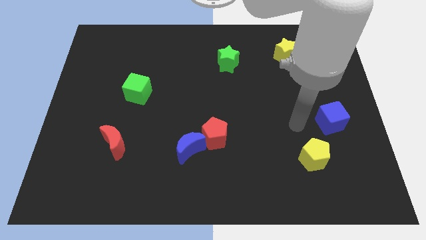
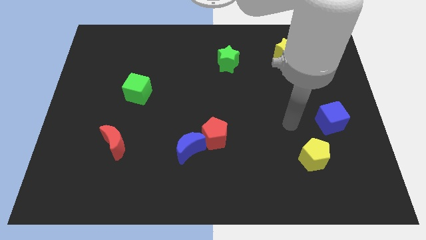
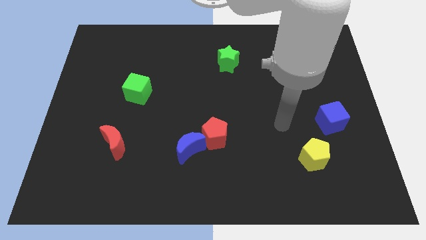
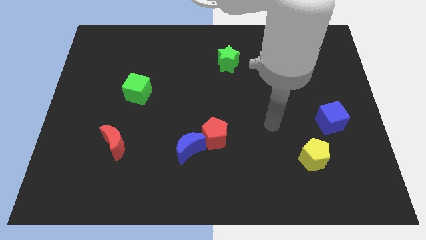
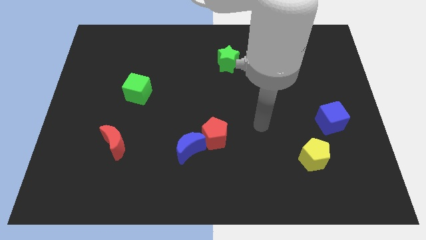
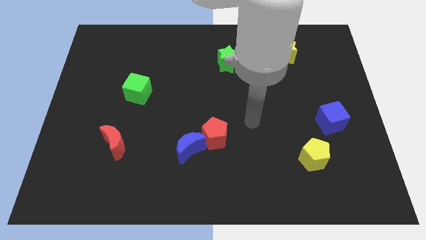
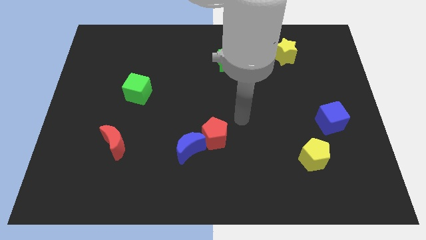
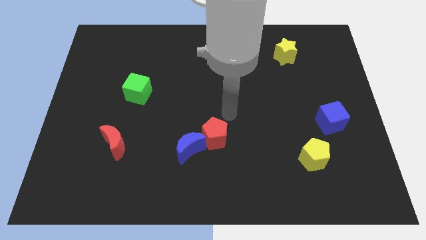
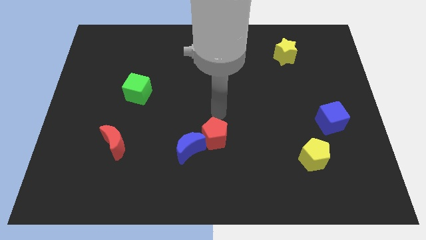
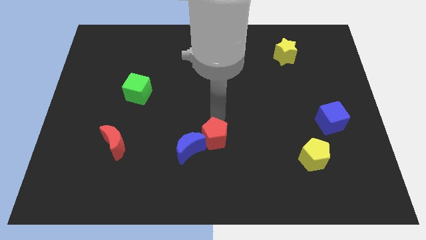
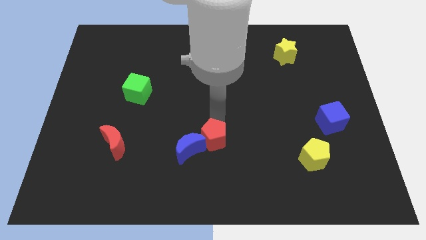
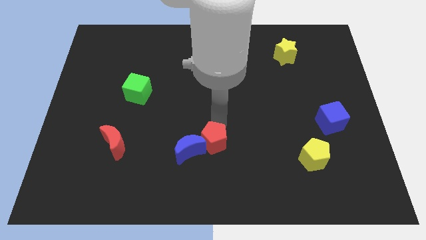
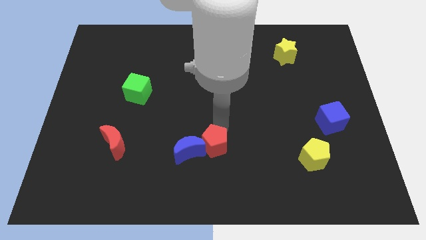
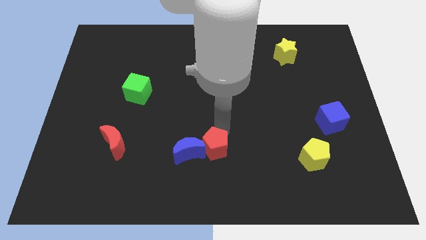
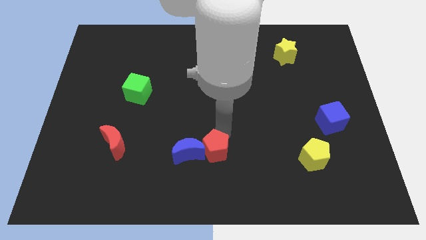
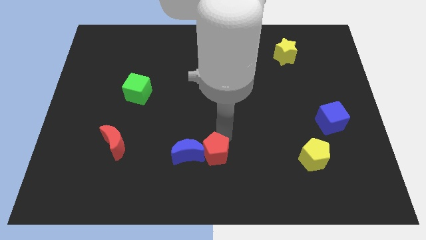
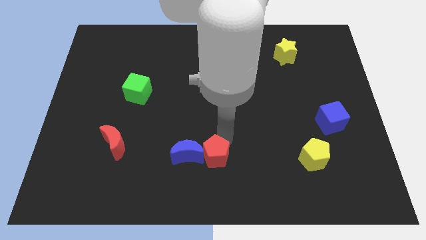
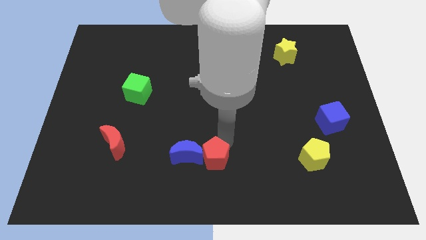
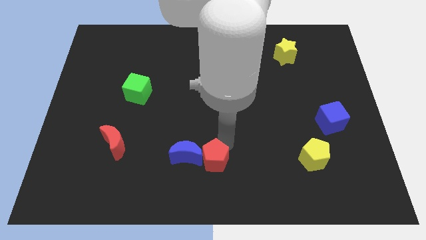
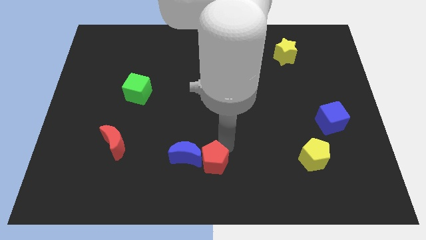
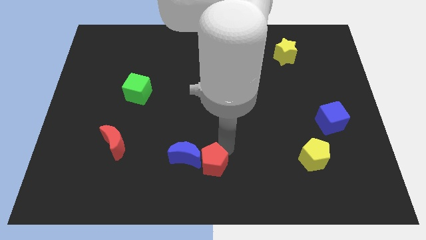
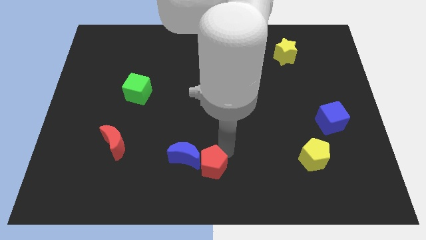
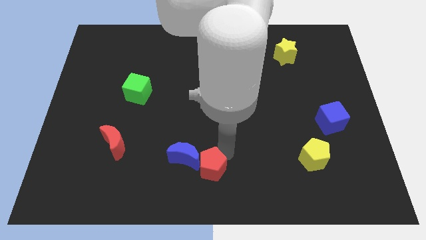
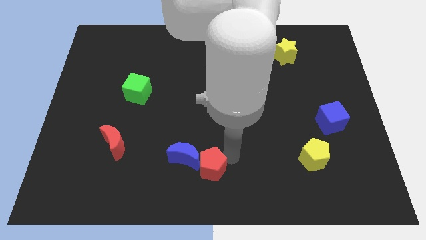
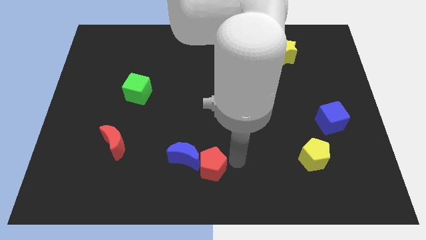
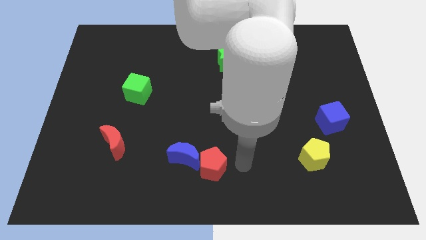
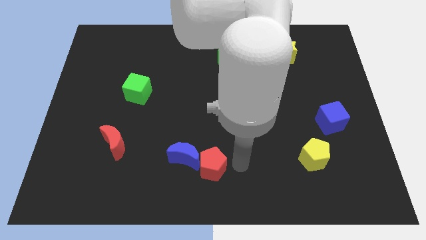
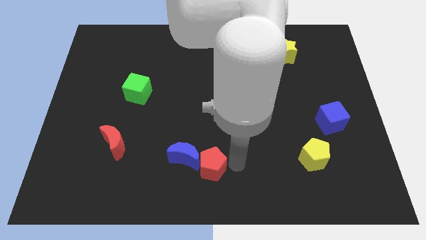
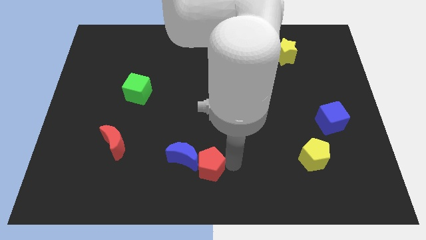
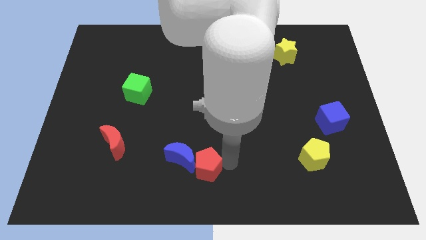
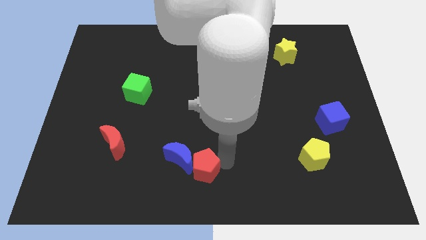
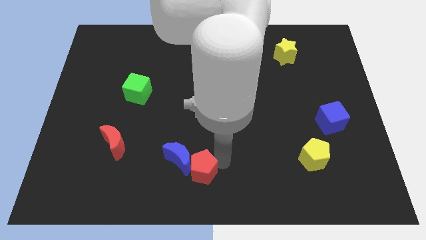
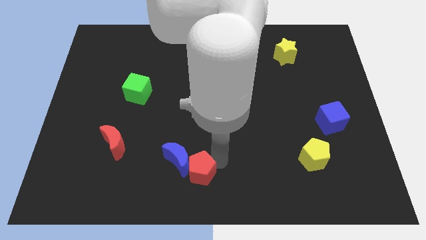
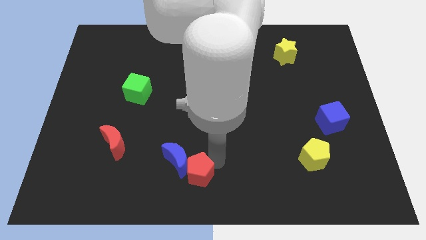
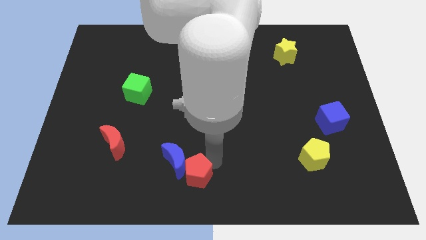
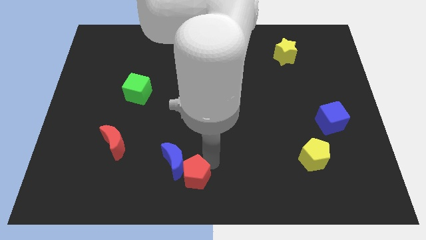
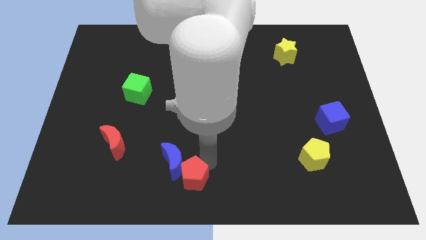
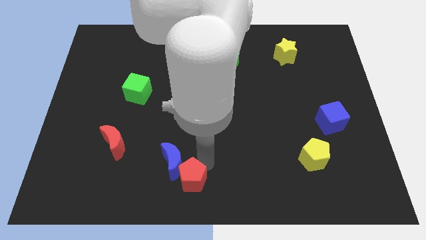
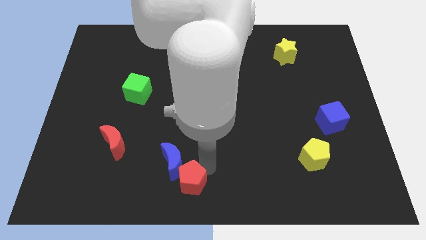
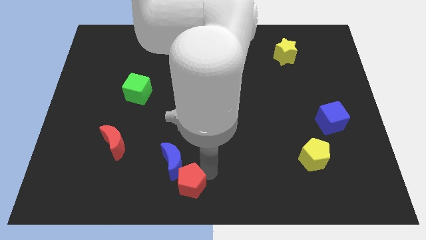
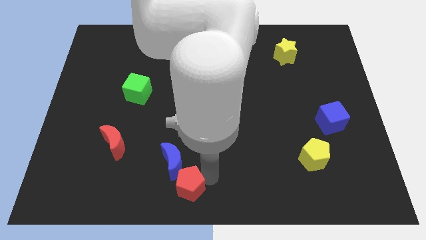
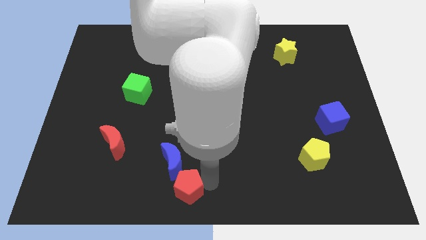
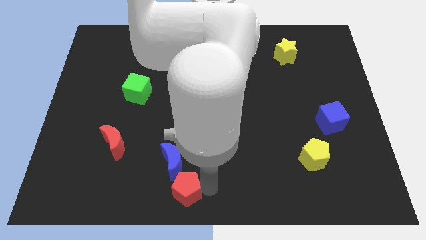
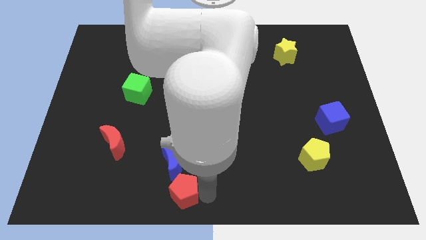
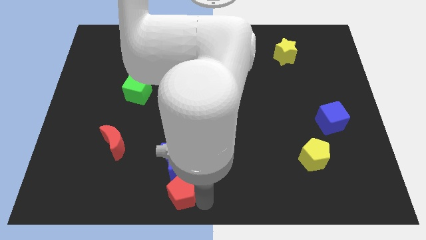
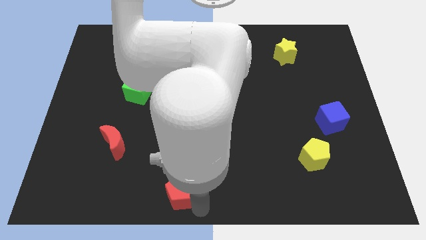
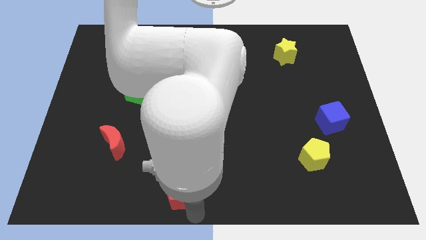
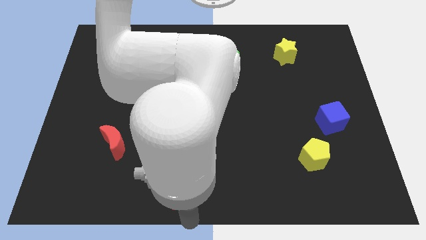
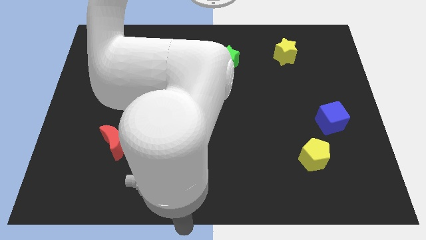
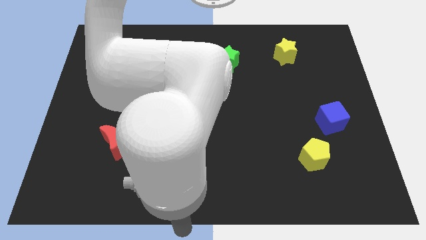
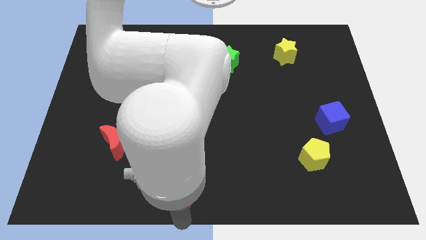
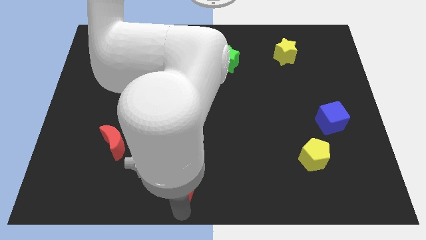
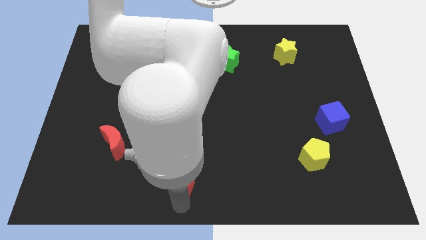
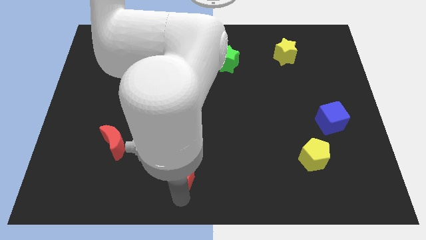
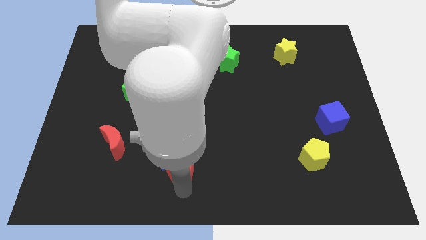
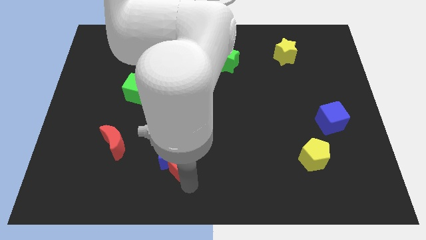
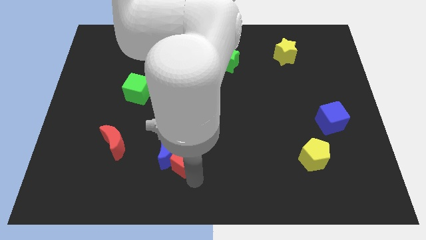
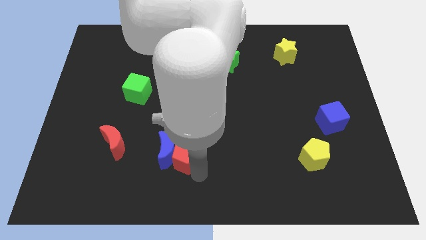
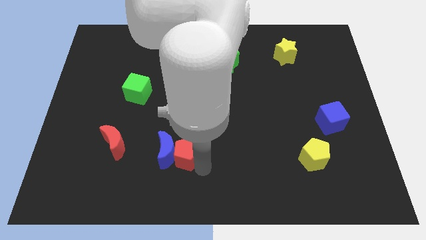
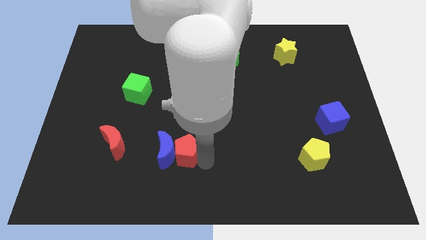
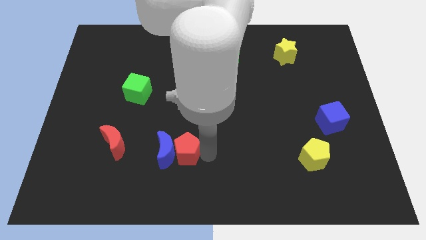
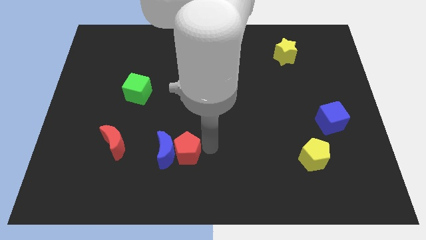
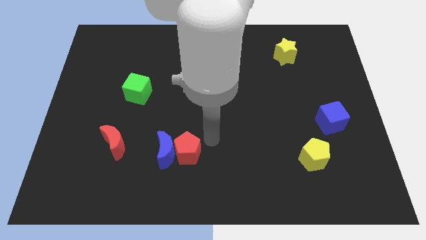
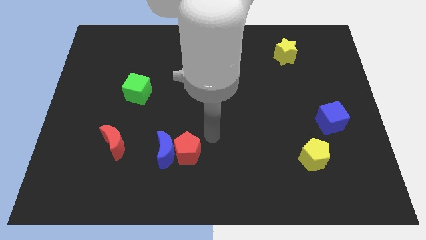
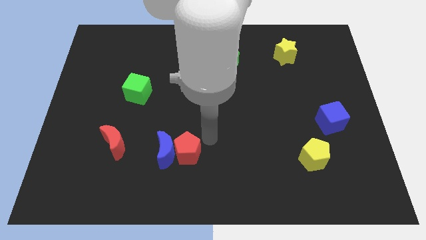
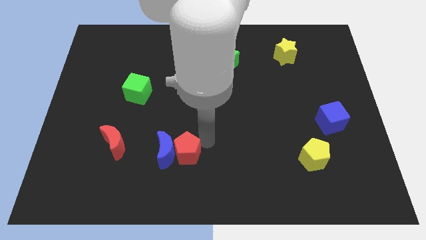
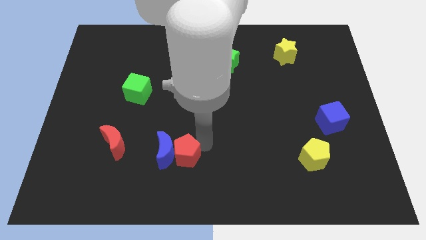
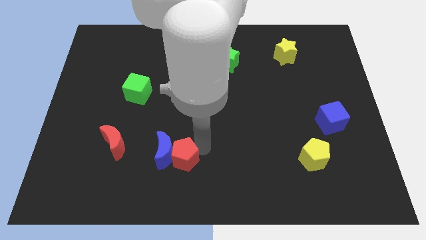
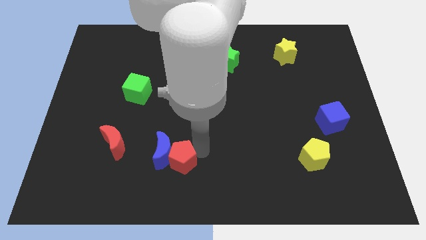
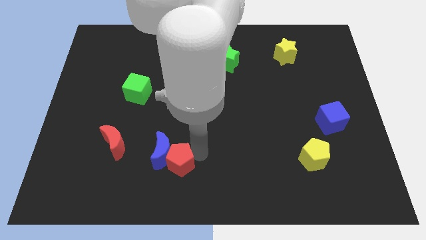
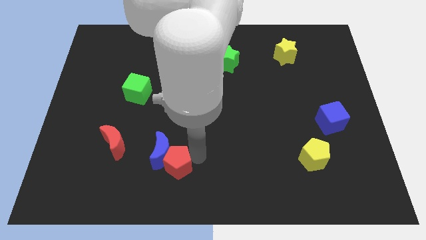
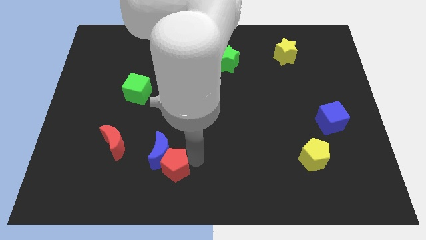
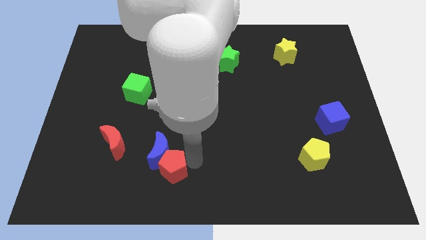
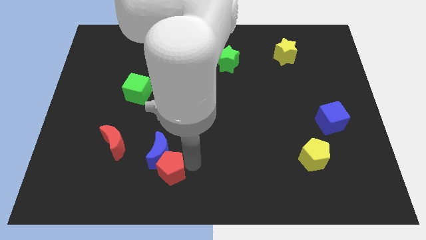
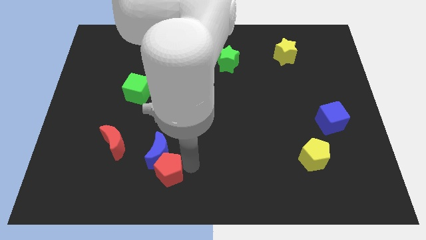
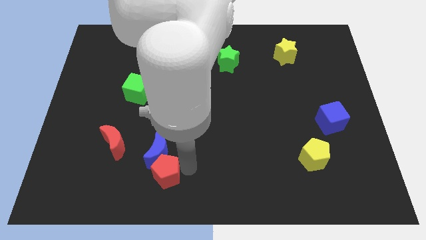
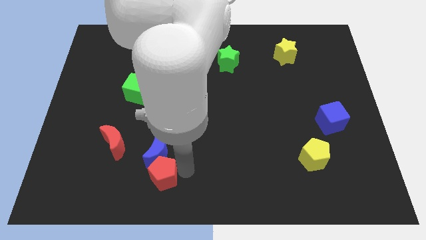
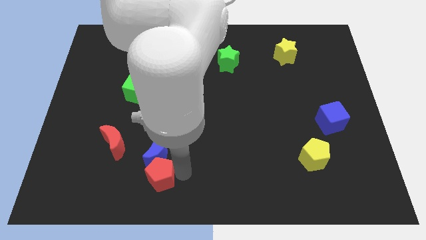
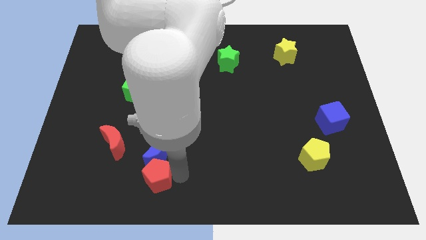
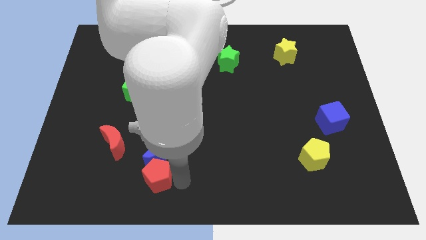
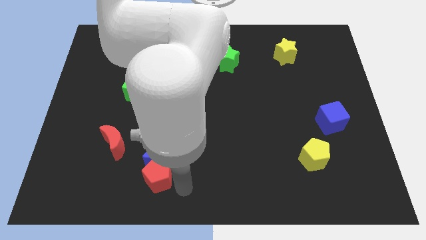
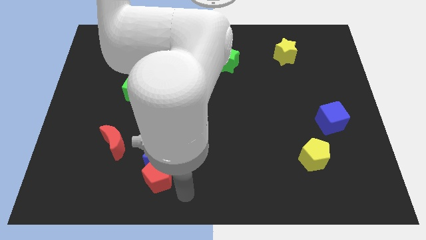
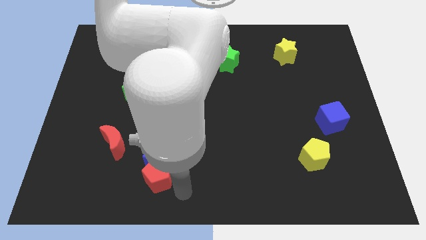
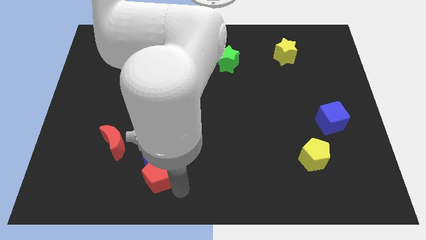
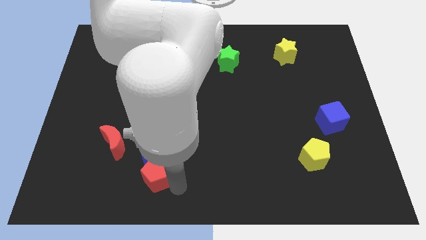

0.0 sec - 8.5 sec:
move the red pentagon diagonally down and to the right of the red moon
